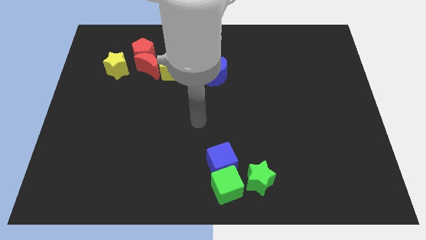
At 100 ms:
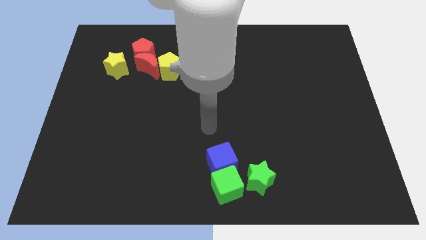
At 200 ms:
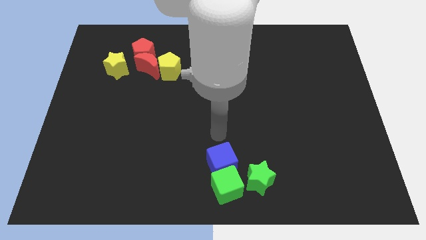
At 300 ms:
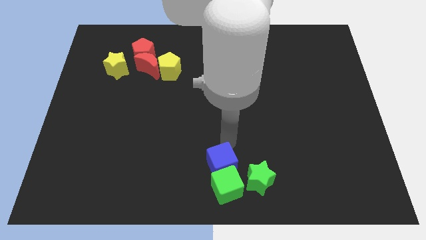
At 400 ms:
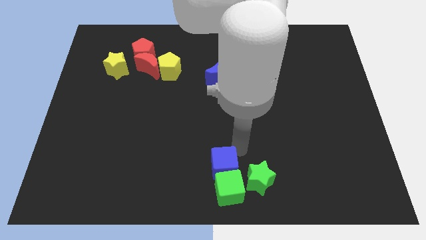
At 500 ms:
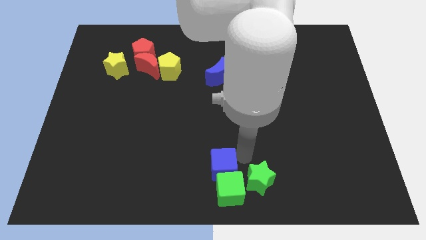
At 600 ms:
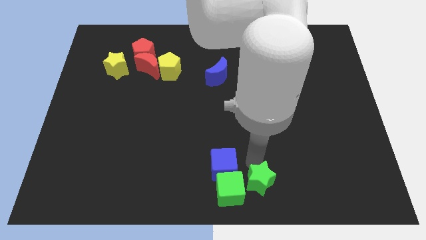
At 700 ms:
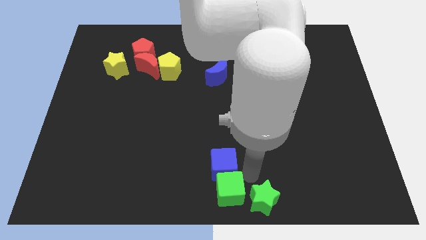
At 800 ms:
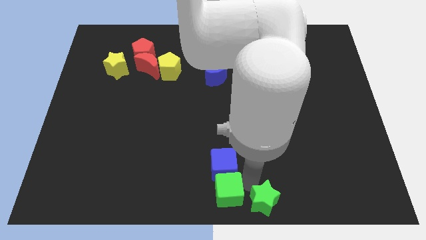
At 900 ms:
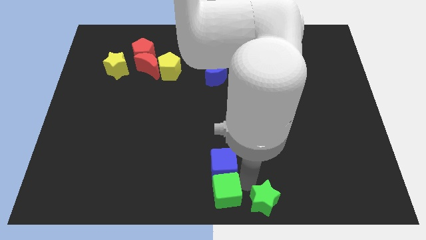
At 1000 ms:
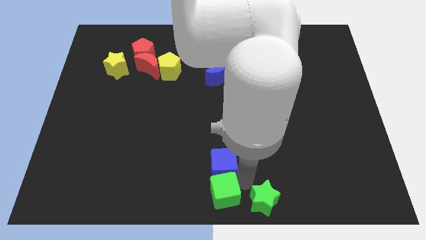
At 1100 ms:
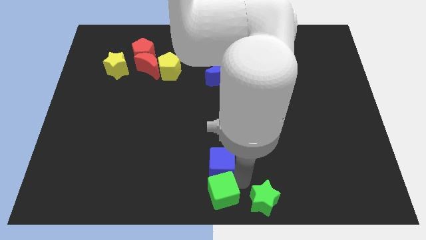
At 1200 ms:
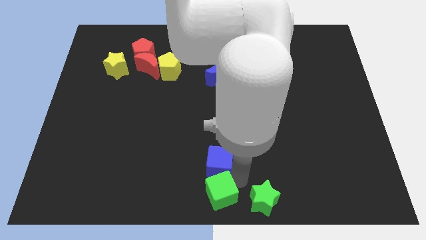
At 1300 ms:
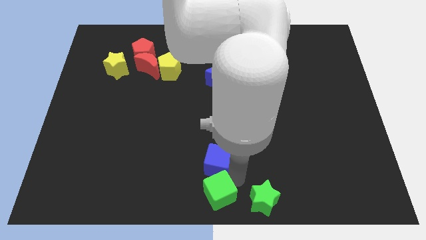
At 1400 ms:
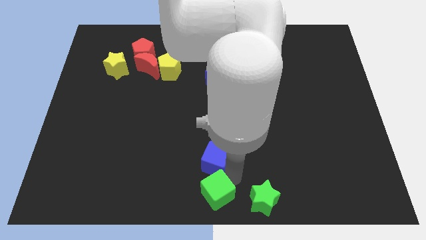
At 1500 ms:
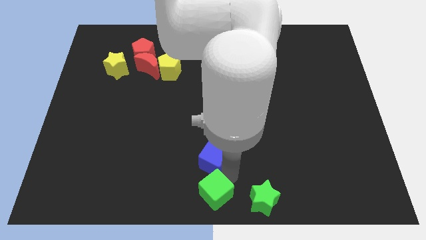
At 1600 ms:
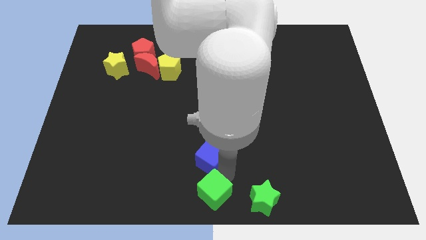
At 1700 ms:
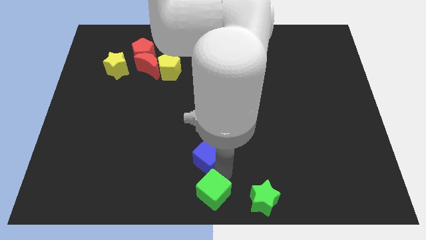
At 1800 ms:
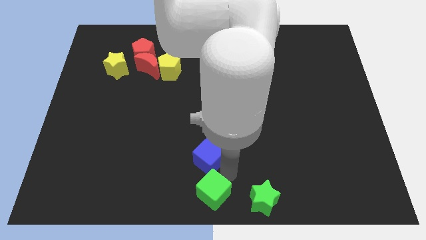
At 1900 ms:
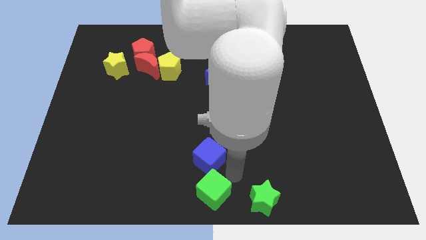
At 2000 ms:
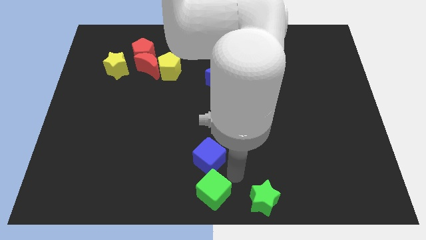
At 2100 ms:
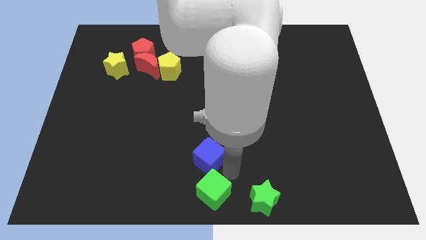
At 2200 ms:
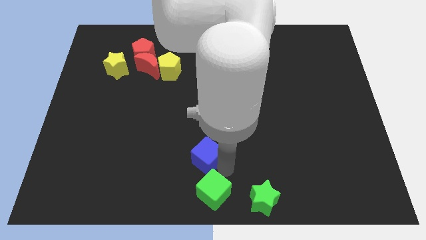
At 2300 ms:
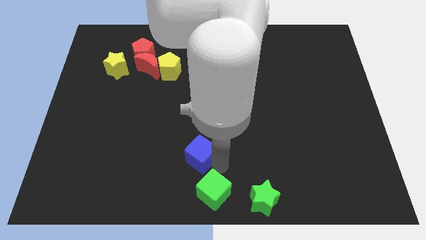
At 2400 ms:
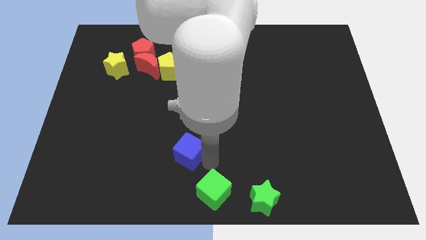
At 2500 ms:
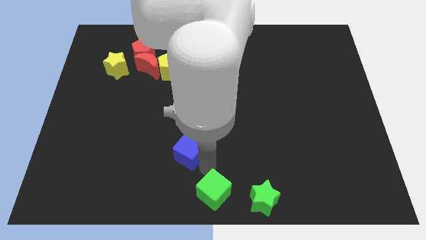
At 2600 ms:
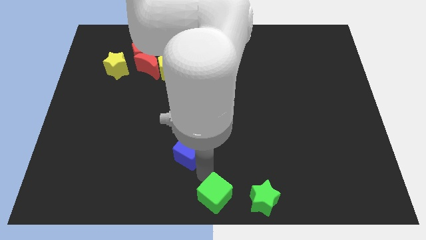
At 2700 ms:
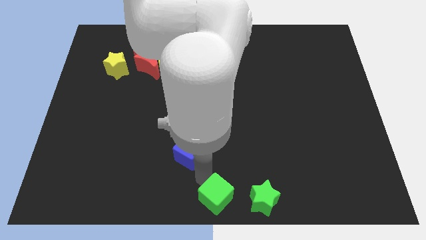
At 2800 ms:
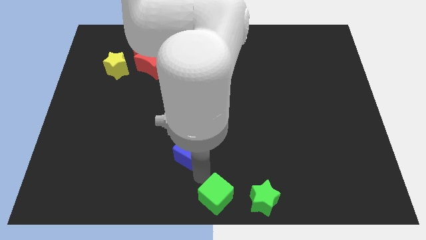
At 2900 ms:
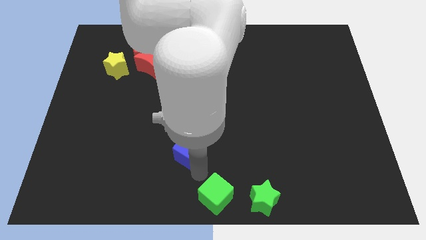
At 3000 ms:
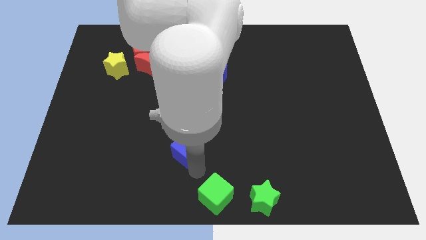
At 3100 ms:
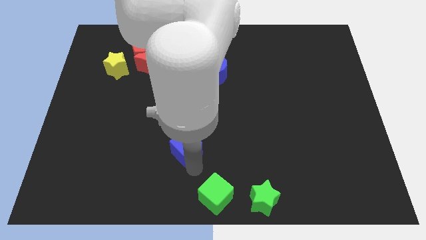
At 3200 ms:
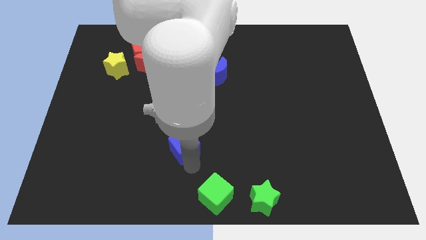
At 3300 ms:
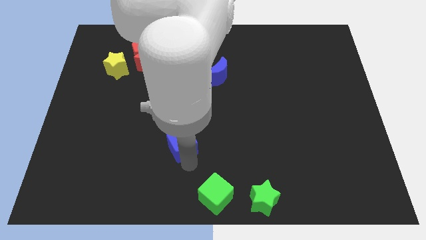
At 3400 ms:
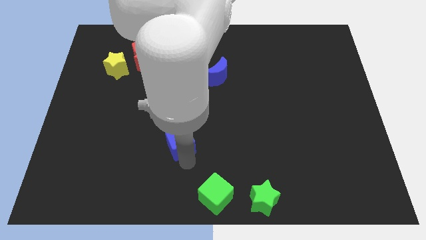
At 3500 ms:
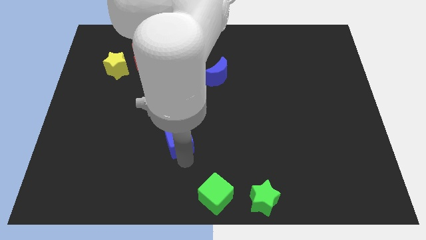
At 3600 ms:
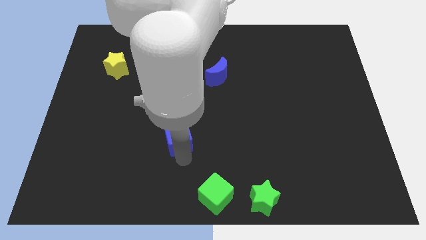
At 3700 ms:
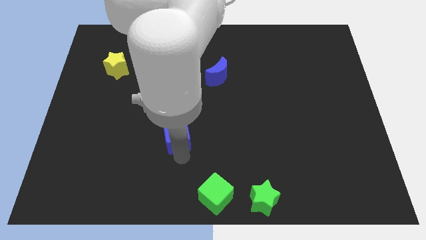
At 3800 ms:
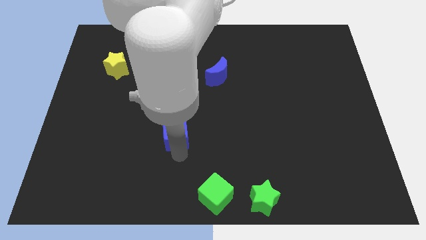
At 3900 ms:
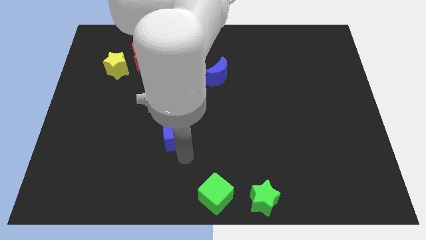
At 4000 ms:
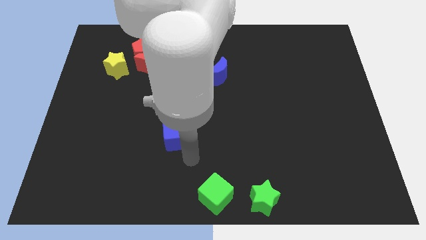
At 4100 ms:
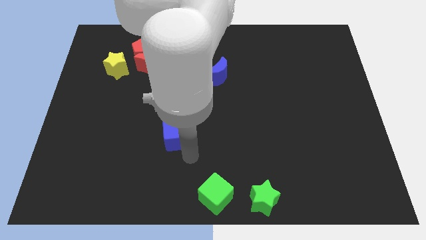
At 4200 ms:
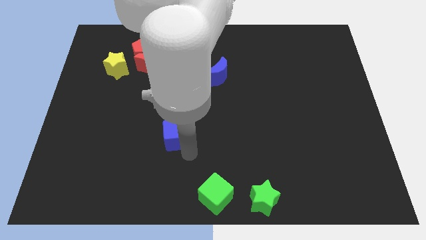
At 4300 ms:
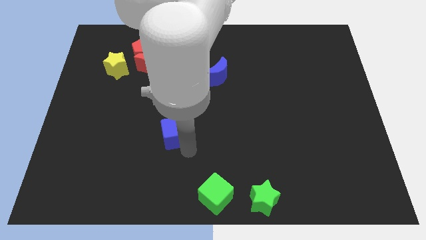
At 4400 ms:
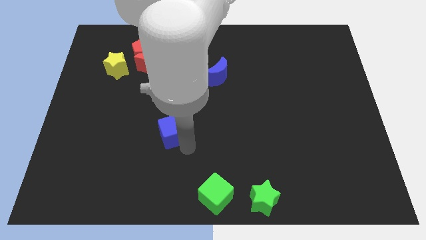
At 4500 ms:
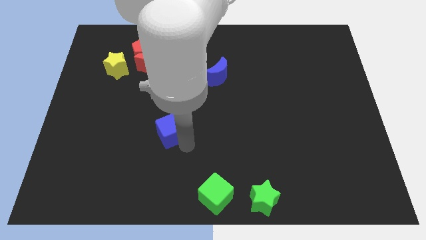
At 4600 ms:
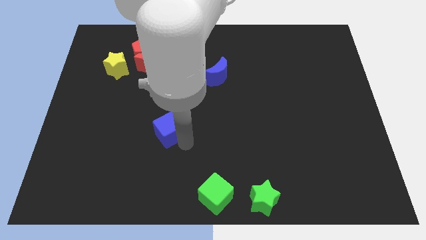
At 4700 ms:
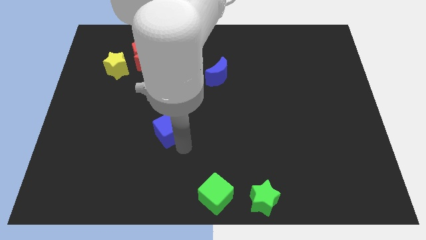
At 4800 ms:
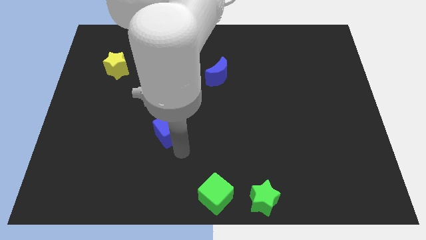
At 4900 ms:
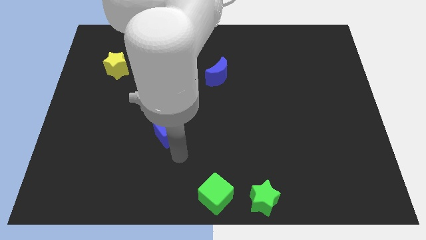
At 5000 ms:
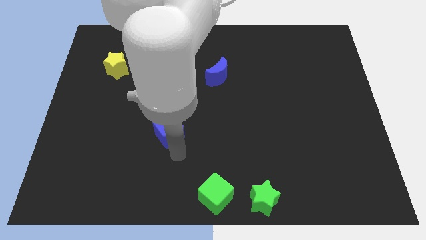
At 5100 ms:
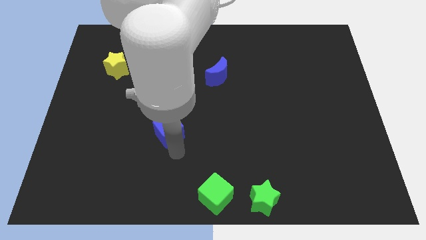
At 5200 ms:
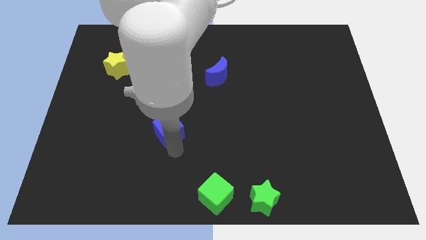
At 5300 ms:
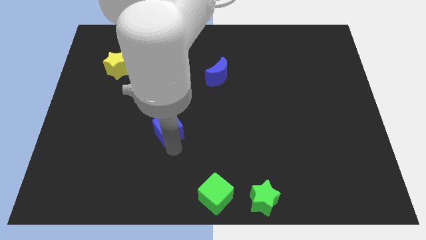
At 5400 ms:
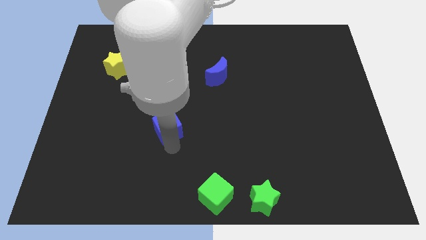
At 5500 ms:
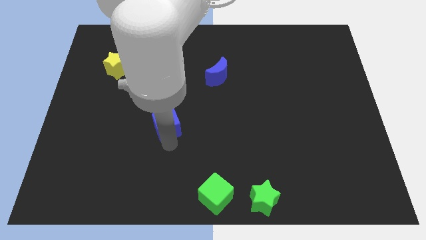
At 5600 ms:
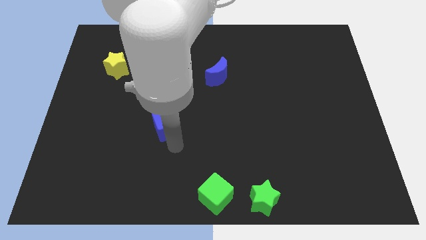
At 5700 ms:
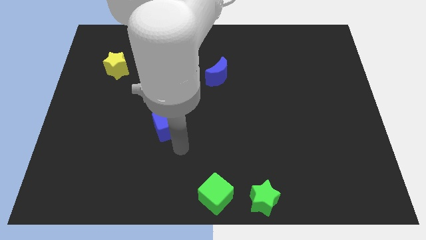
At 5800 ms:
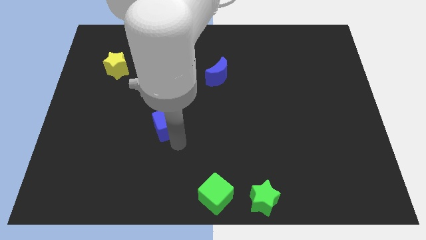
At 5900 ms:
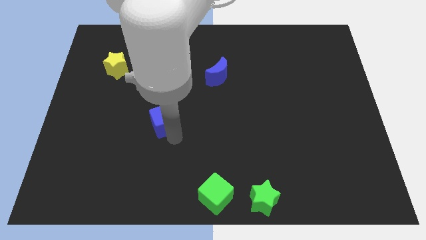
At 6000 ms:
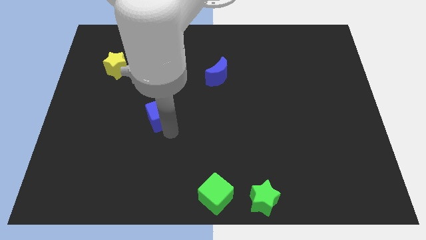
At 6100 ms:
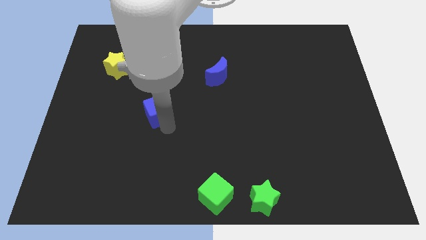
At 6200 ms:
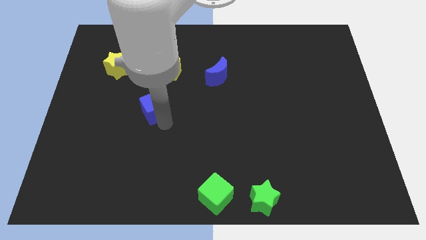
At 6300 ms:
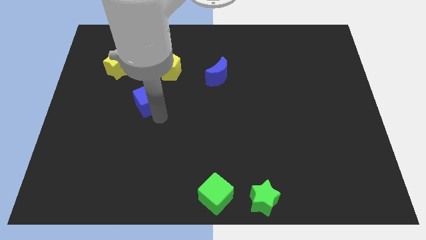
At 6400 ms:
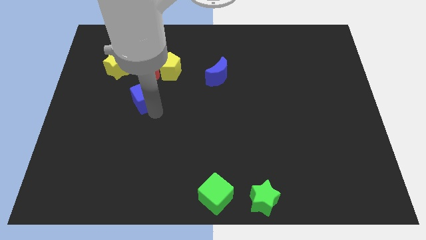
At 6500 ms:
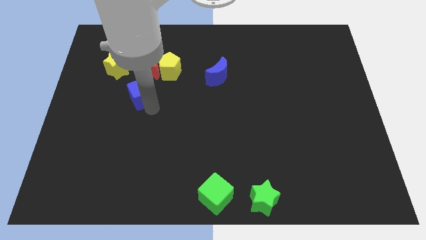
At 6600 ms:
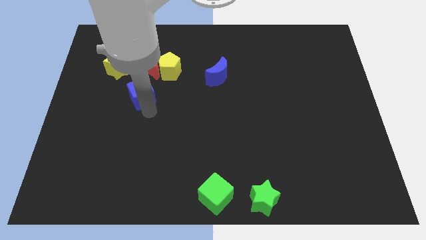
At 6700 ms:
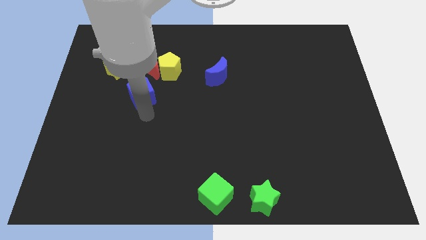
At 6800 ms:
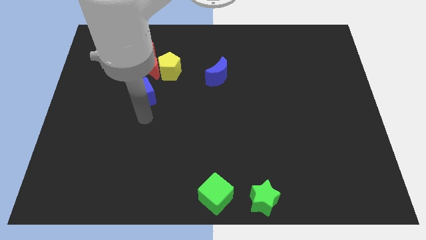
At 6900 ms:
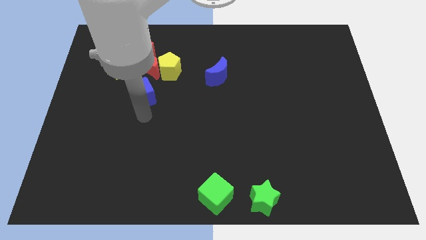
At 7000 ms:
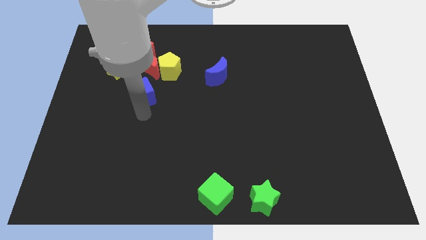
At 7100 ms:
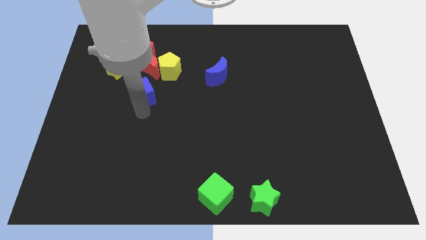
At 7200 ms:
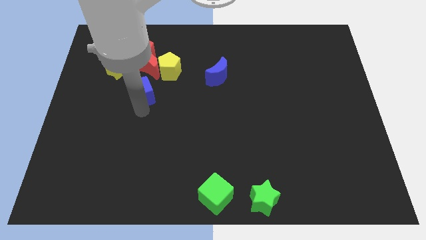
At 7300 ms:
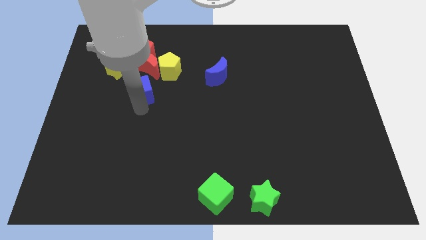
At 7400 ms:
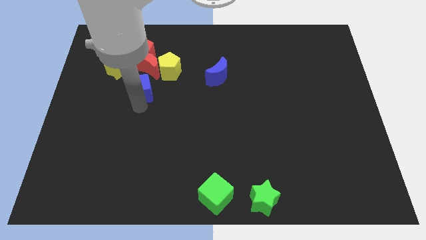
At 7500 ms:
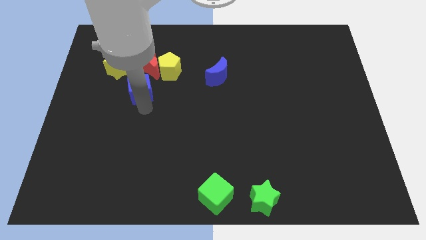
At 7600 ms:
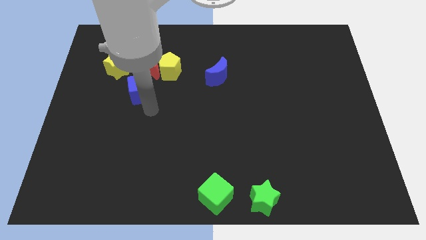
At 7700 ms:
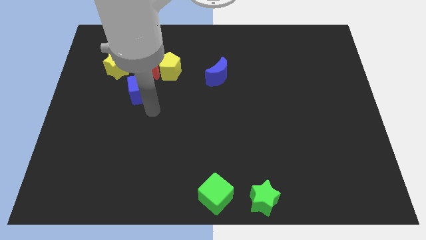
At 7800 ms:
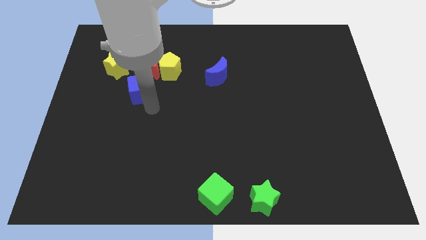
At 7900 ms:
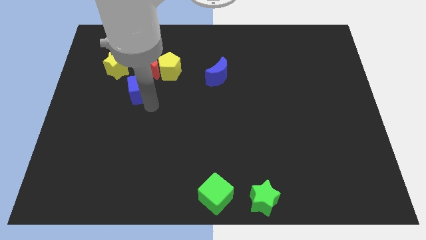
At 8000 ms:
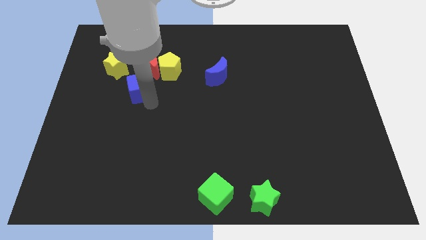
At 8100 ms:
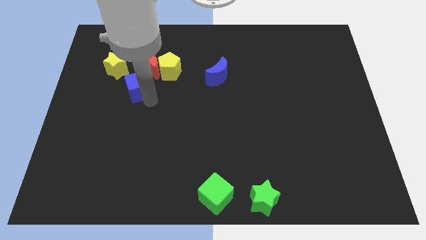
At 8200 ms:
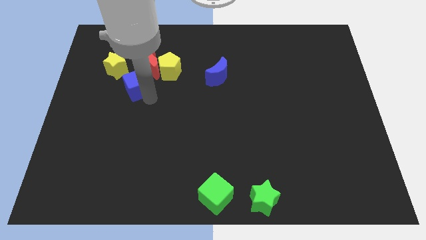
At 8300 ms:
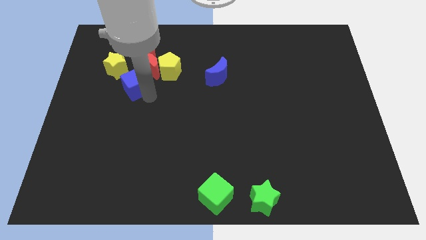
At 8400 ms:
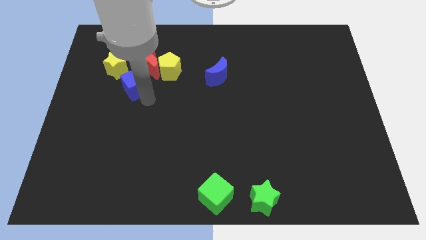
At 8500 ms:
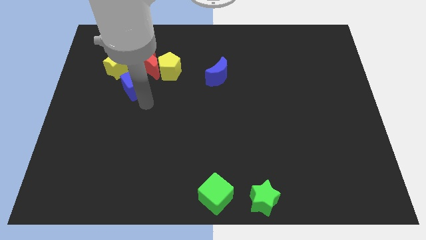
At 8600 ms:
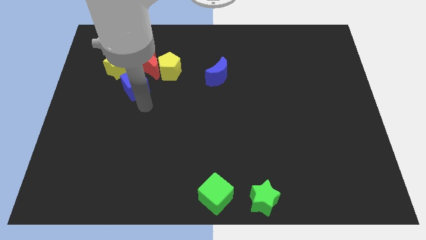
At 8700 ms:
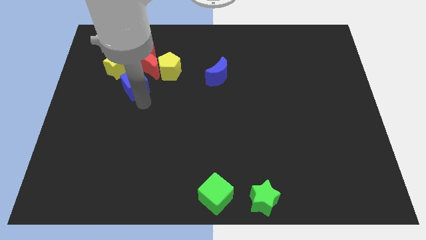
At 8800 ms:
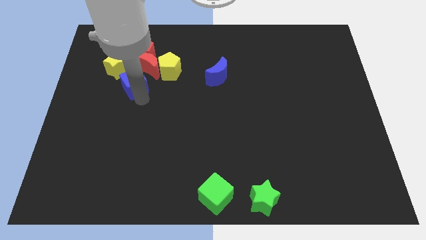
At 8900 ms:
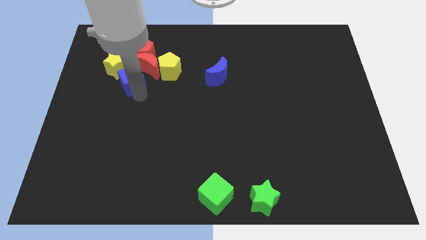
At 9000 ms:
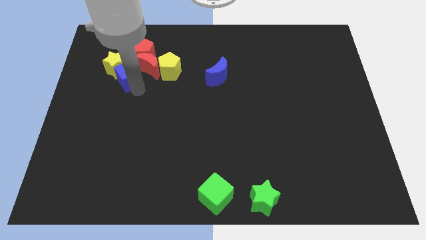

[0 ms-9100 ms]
slide the blue cube towards the yellow star
